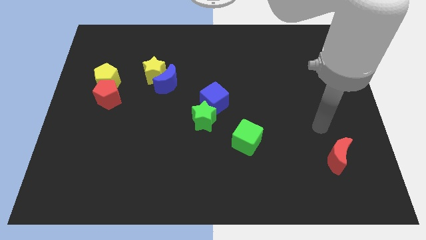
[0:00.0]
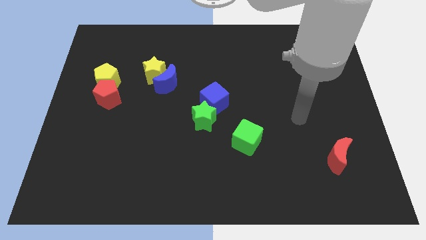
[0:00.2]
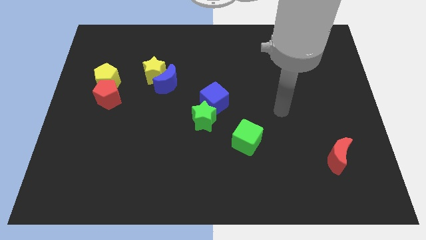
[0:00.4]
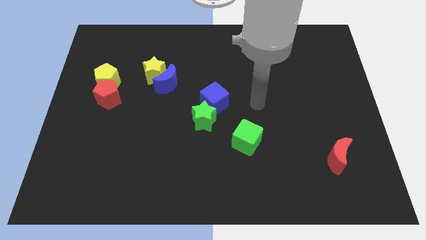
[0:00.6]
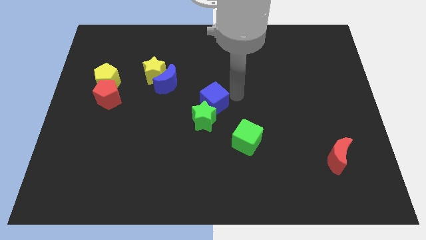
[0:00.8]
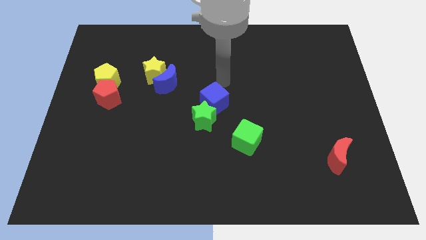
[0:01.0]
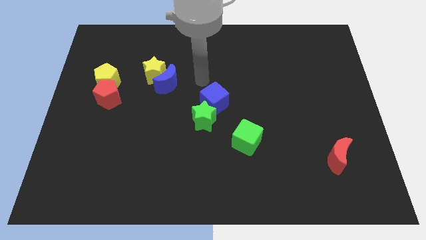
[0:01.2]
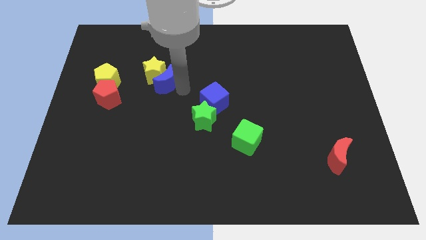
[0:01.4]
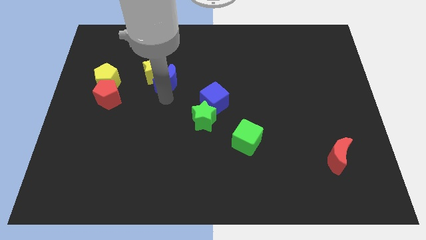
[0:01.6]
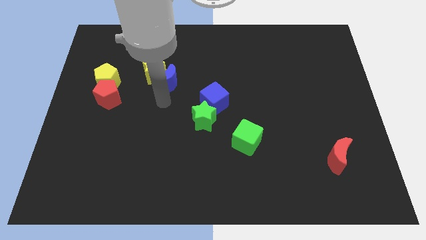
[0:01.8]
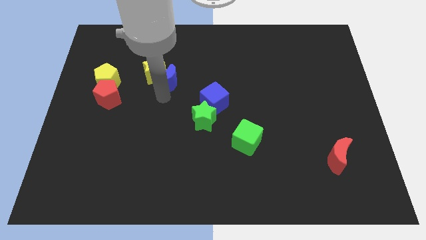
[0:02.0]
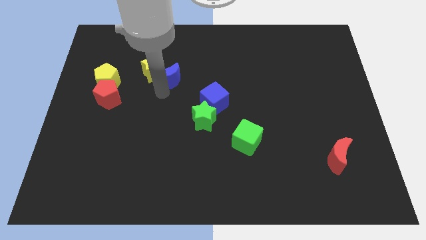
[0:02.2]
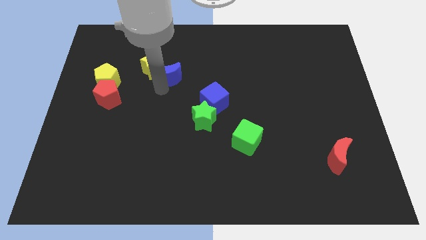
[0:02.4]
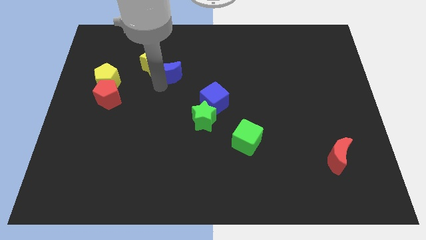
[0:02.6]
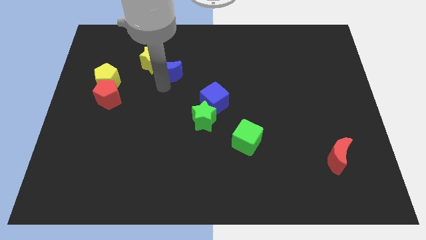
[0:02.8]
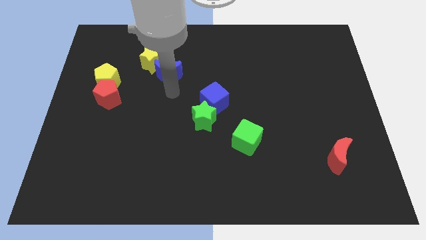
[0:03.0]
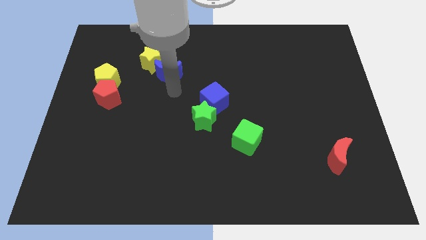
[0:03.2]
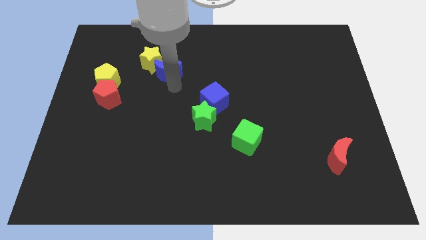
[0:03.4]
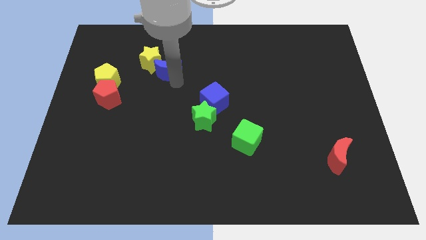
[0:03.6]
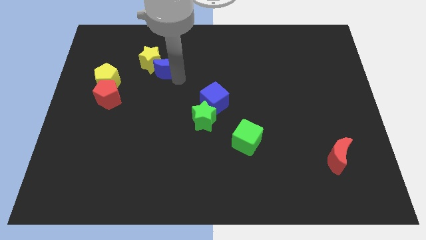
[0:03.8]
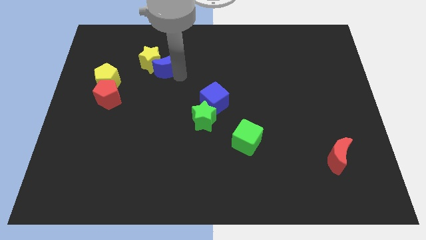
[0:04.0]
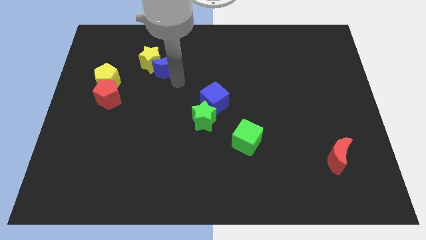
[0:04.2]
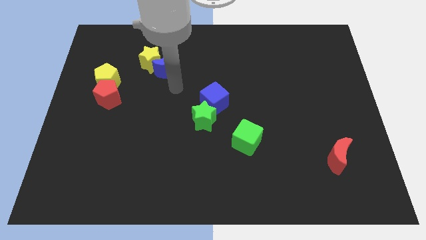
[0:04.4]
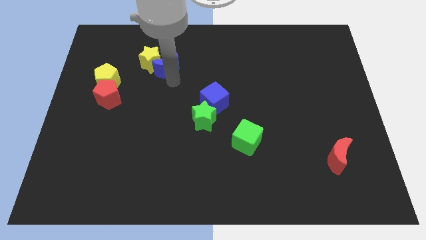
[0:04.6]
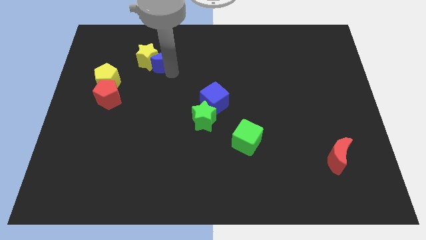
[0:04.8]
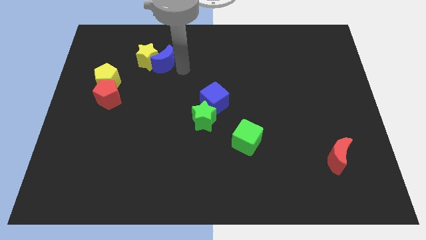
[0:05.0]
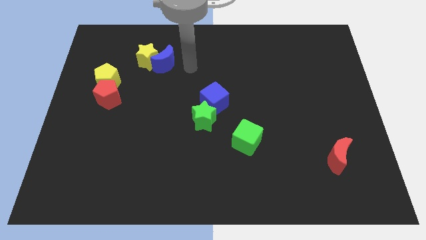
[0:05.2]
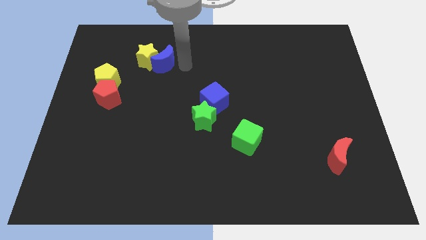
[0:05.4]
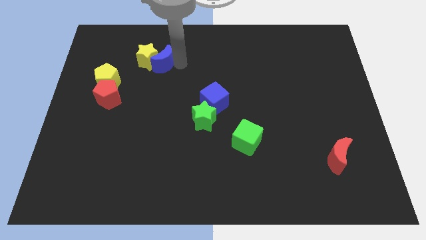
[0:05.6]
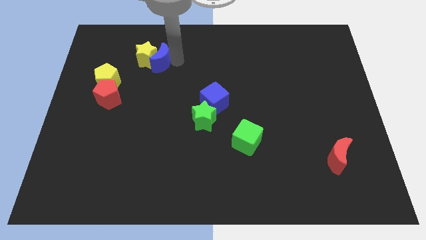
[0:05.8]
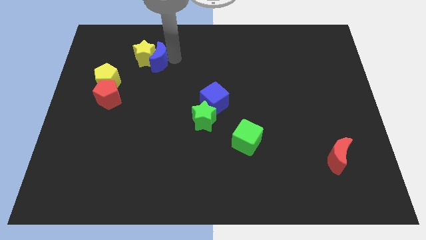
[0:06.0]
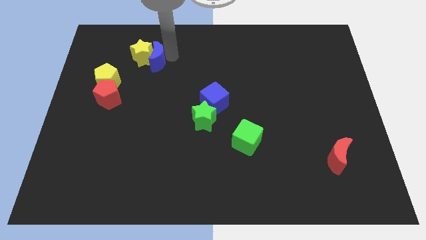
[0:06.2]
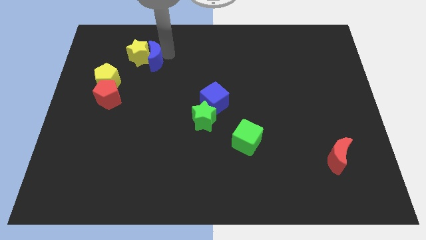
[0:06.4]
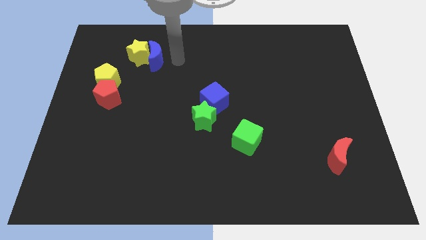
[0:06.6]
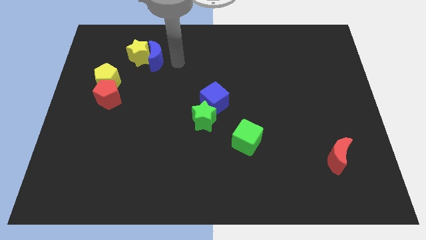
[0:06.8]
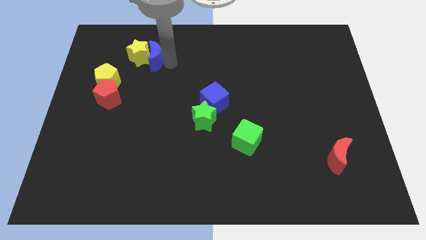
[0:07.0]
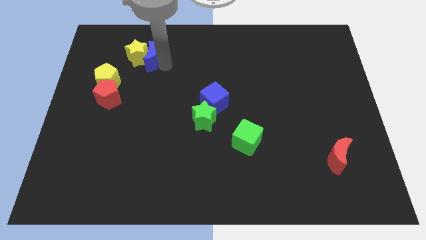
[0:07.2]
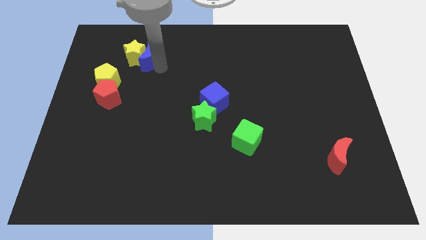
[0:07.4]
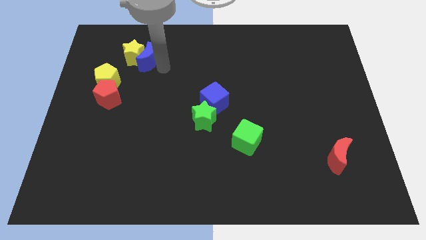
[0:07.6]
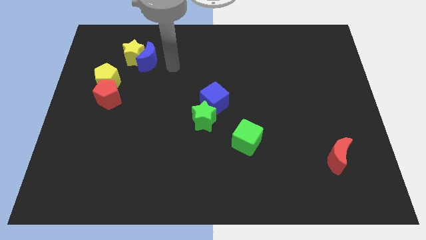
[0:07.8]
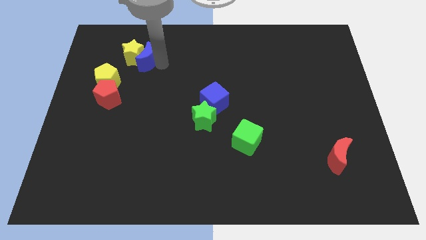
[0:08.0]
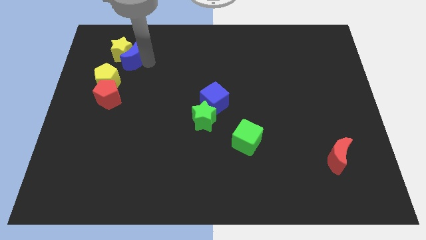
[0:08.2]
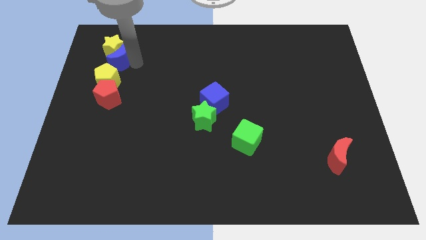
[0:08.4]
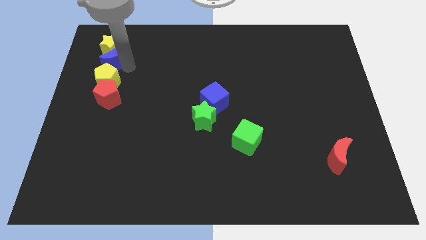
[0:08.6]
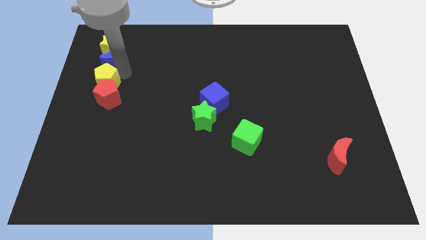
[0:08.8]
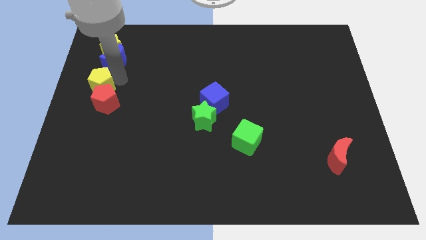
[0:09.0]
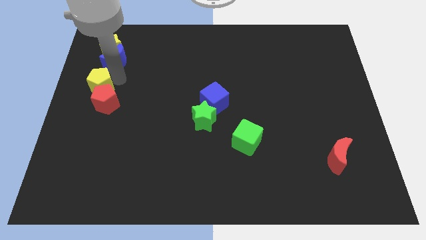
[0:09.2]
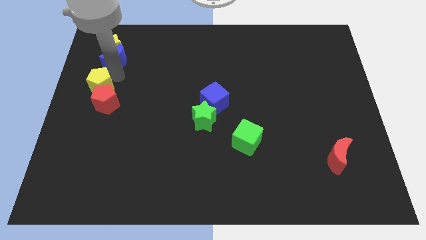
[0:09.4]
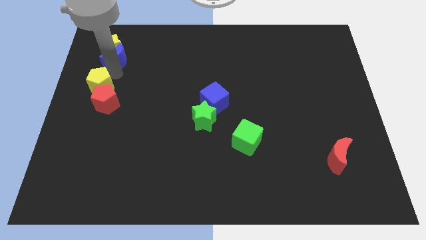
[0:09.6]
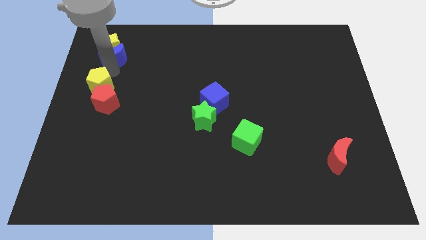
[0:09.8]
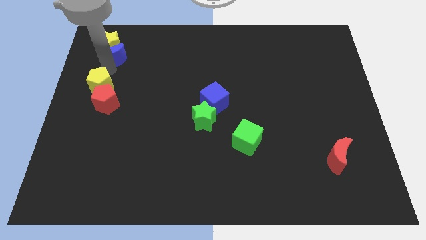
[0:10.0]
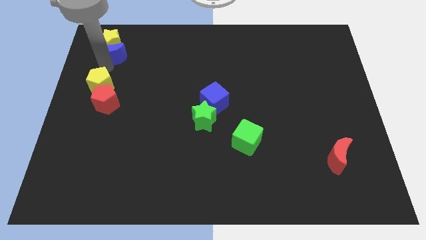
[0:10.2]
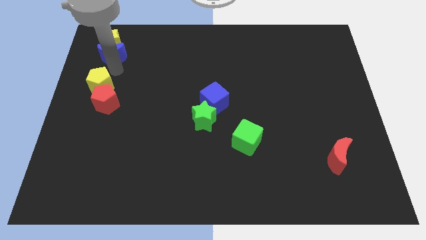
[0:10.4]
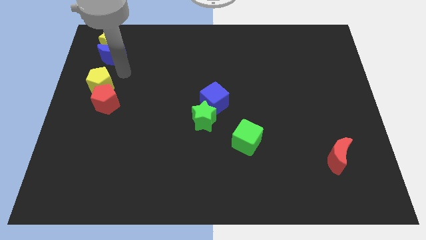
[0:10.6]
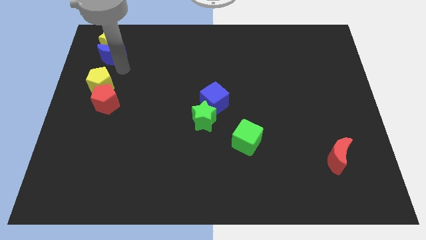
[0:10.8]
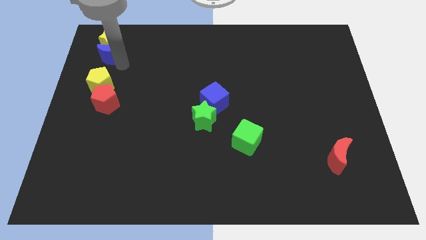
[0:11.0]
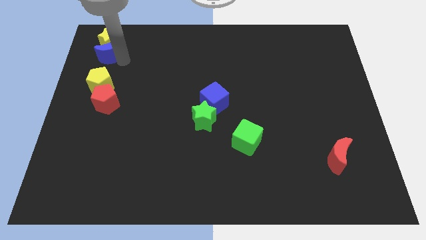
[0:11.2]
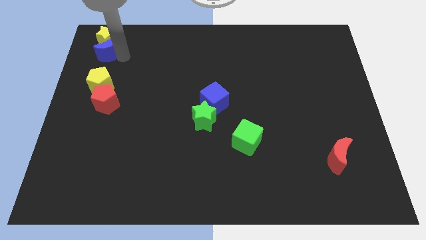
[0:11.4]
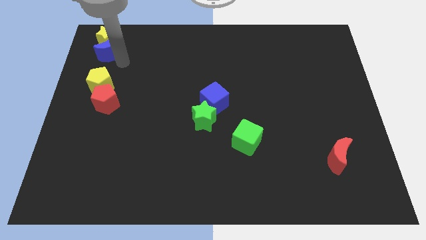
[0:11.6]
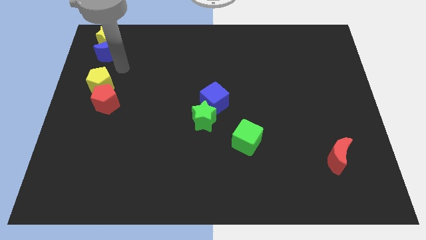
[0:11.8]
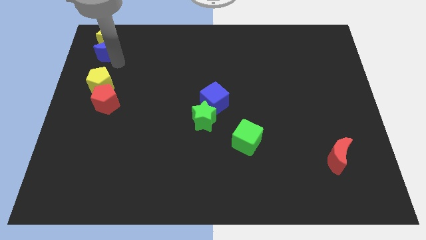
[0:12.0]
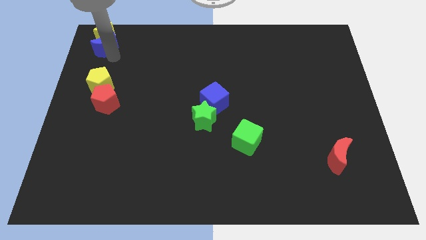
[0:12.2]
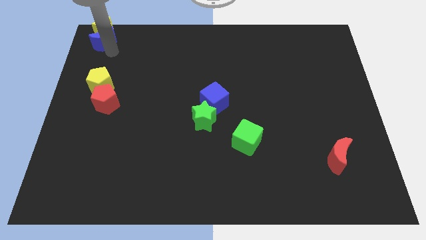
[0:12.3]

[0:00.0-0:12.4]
slide the blue moon to the top left corner
